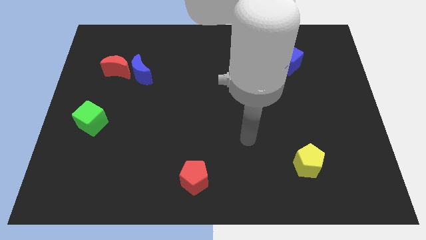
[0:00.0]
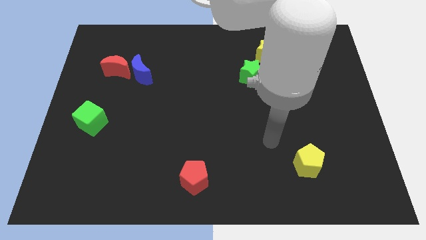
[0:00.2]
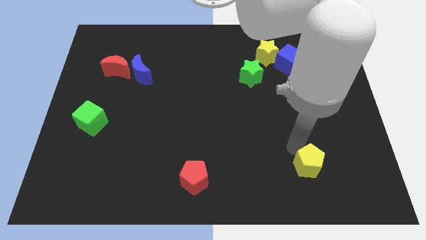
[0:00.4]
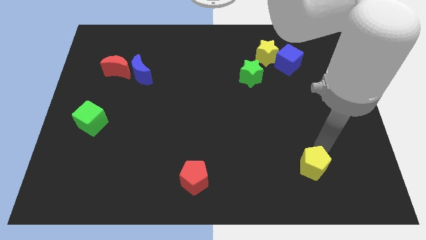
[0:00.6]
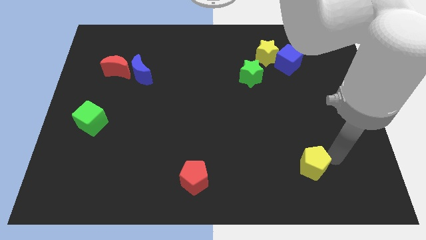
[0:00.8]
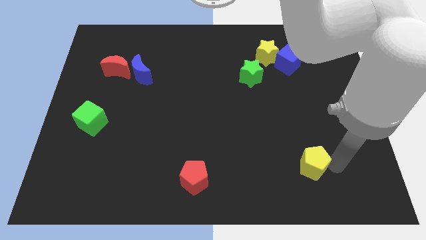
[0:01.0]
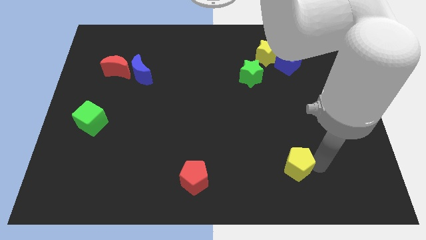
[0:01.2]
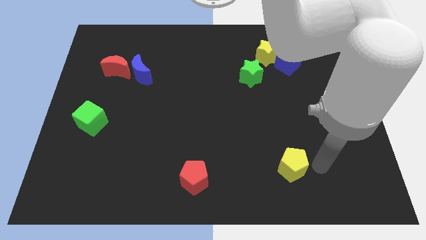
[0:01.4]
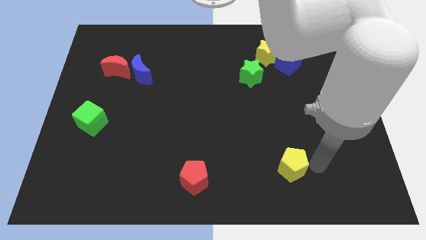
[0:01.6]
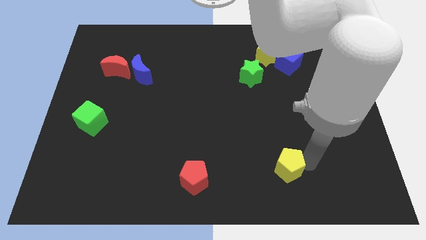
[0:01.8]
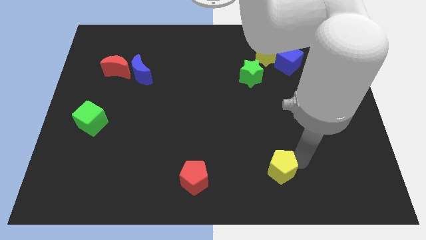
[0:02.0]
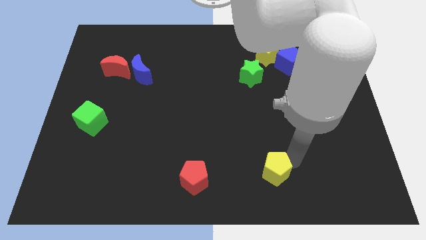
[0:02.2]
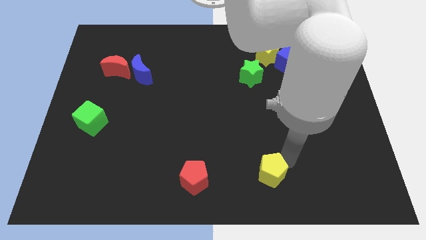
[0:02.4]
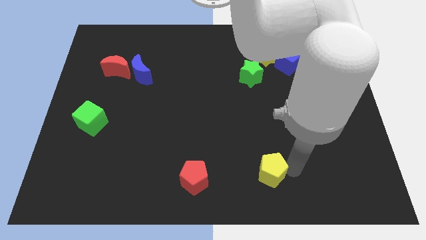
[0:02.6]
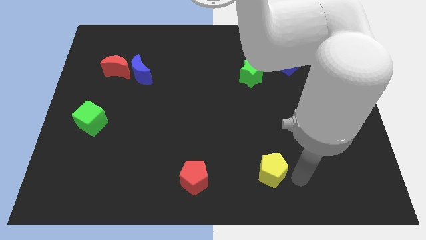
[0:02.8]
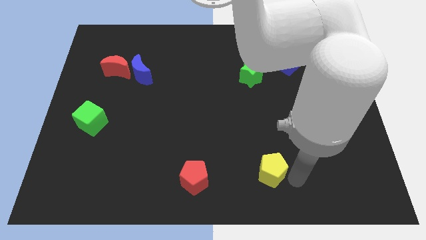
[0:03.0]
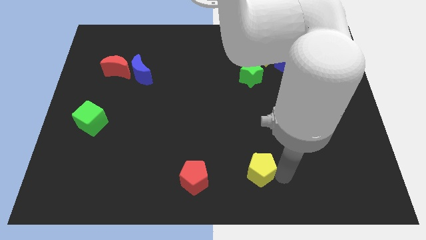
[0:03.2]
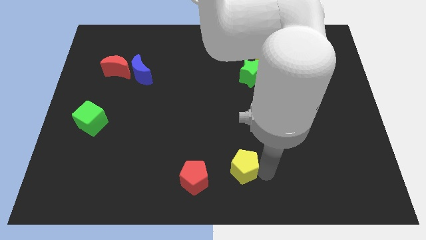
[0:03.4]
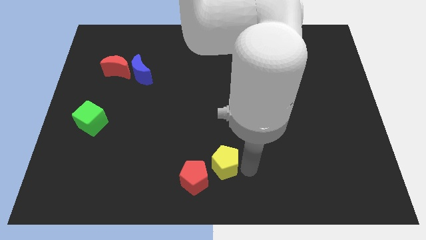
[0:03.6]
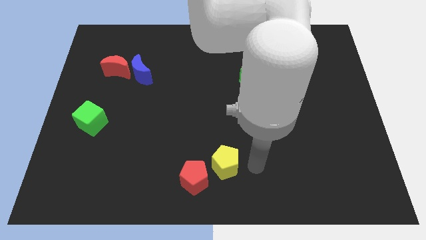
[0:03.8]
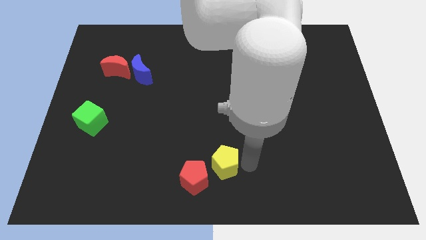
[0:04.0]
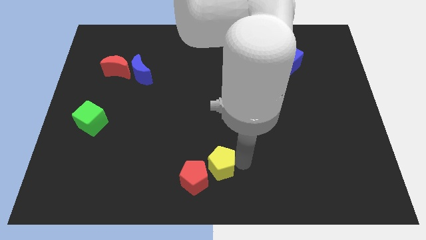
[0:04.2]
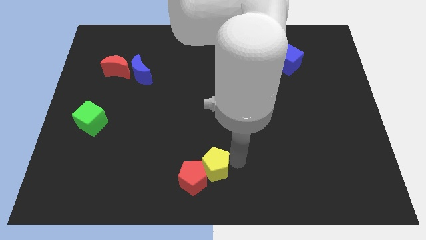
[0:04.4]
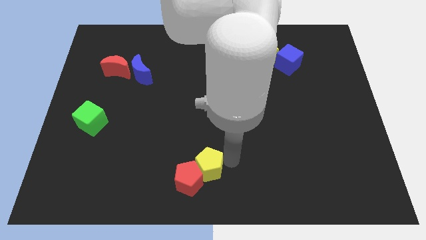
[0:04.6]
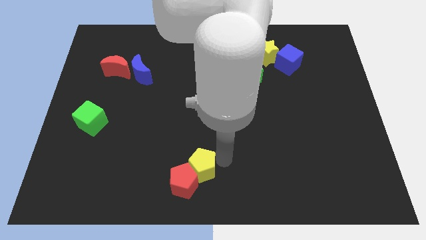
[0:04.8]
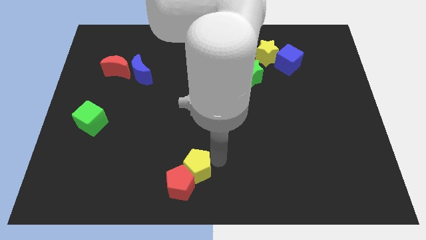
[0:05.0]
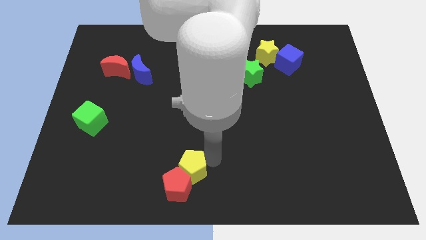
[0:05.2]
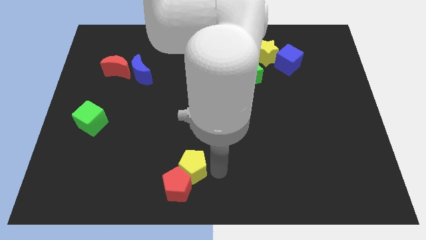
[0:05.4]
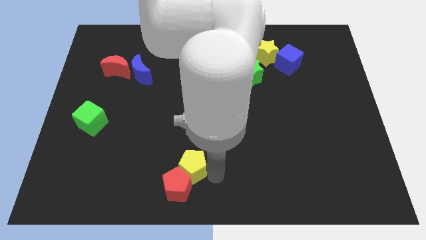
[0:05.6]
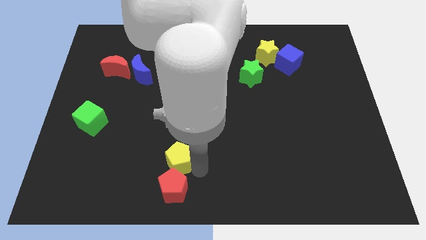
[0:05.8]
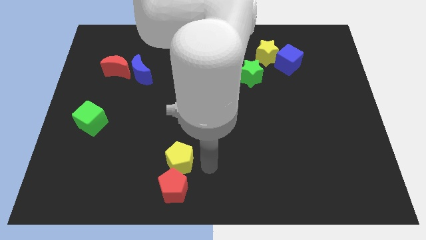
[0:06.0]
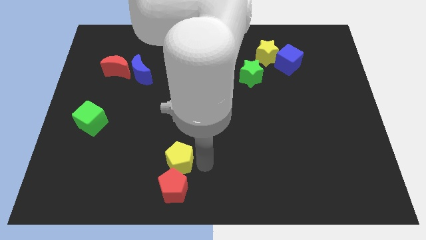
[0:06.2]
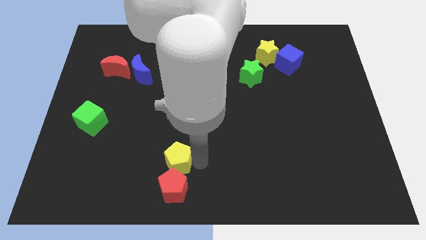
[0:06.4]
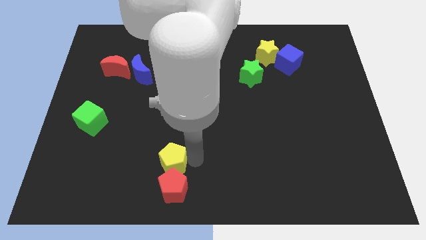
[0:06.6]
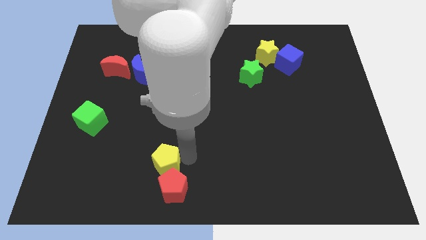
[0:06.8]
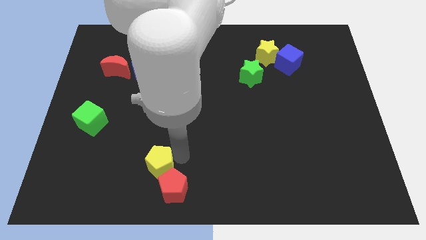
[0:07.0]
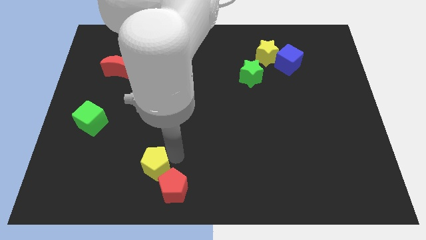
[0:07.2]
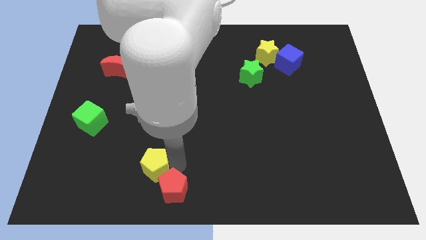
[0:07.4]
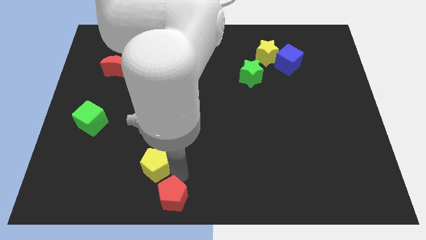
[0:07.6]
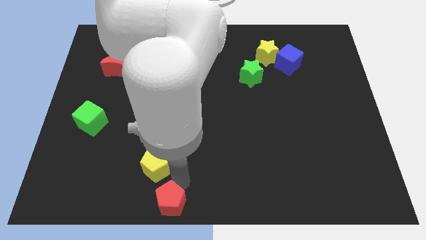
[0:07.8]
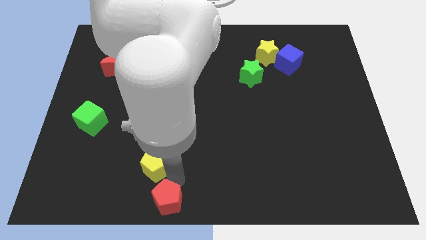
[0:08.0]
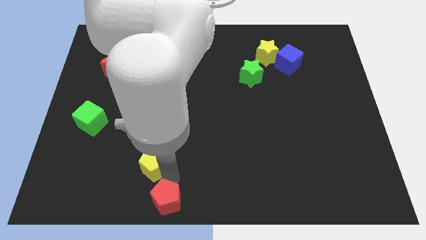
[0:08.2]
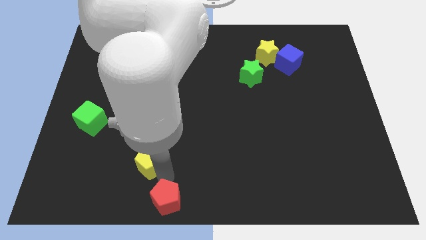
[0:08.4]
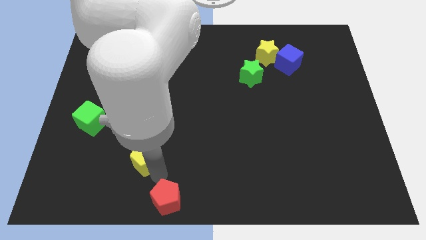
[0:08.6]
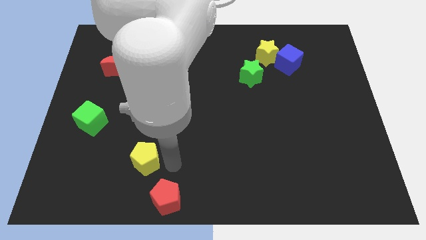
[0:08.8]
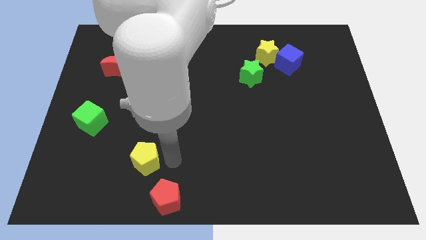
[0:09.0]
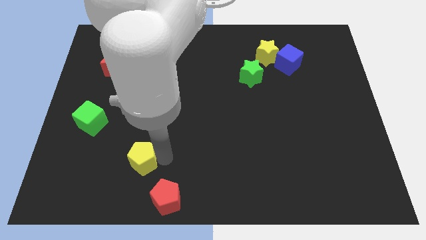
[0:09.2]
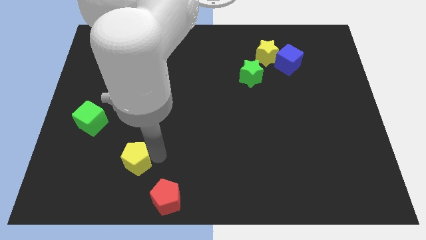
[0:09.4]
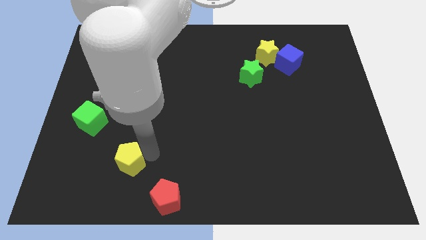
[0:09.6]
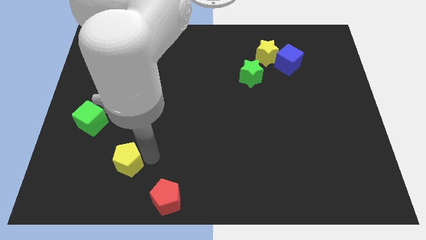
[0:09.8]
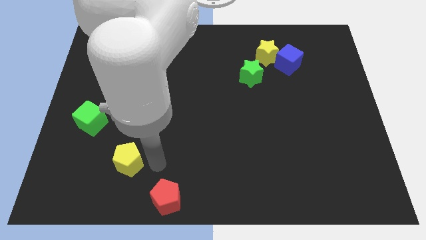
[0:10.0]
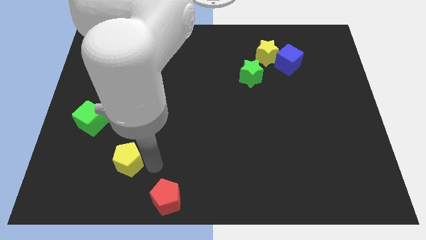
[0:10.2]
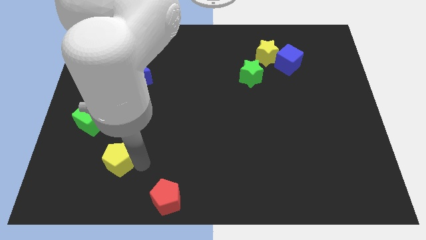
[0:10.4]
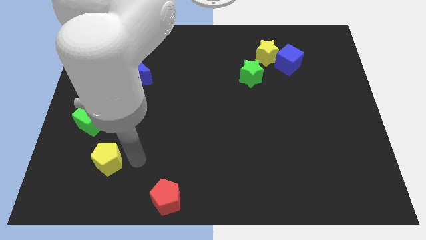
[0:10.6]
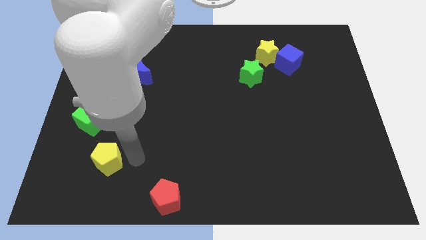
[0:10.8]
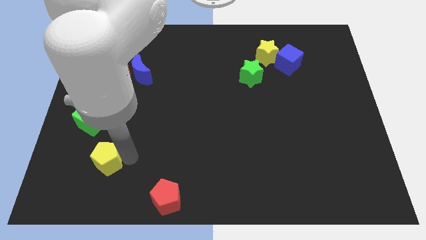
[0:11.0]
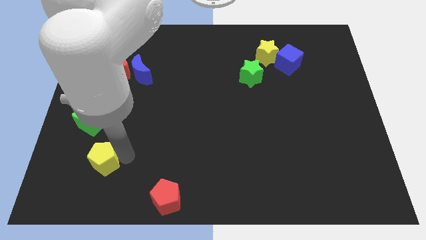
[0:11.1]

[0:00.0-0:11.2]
slide the yellow pentagon below the green cube
